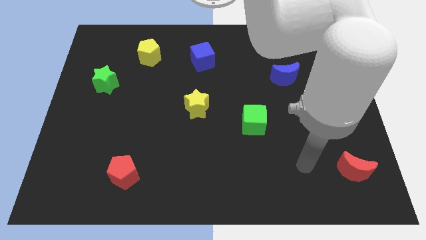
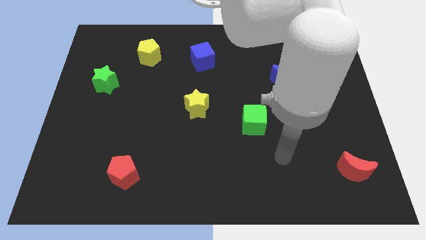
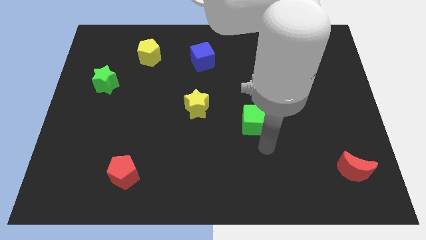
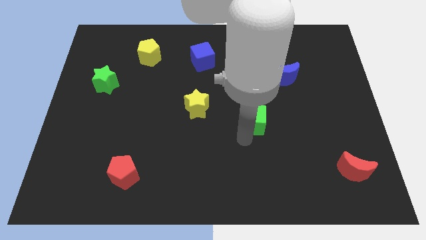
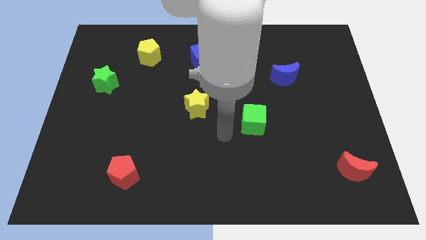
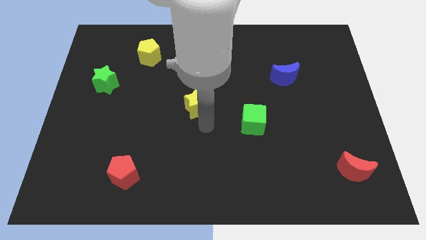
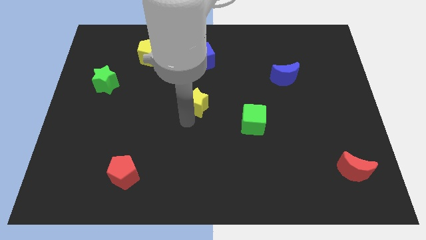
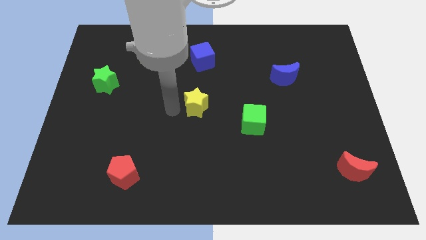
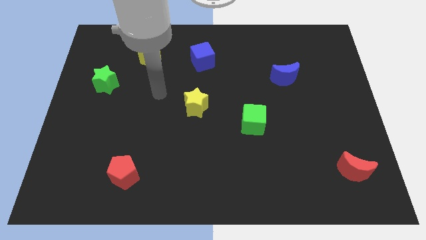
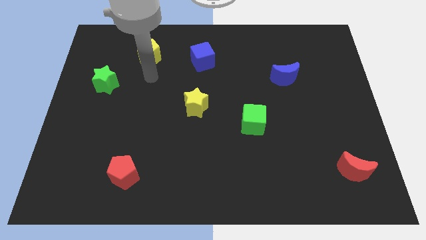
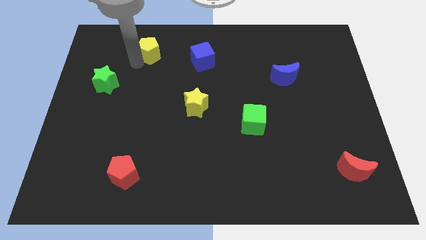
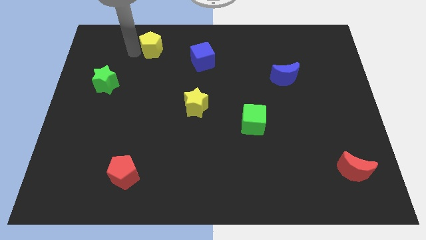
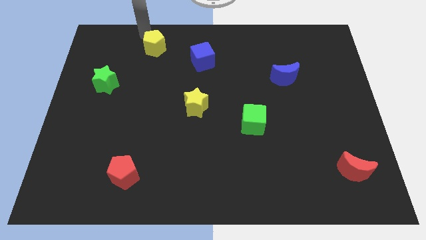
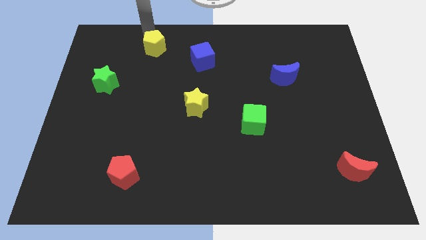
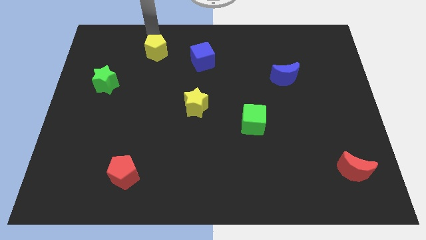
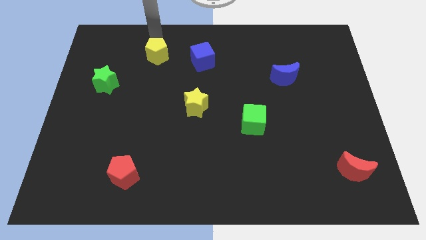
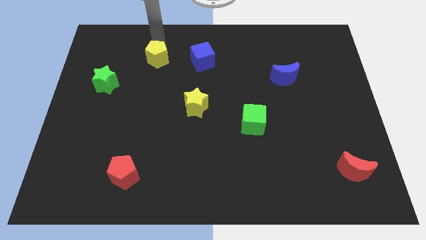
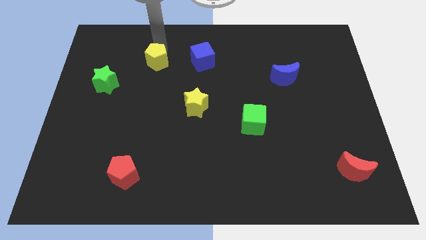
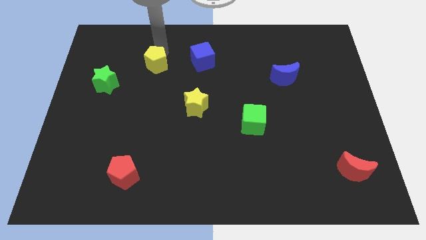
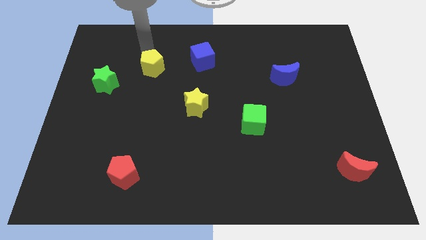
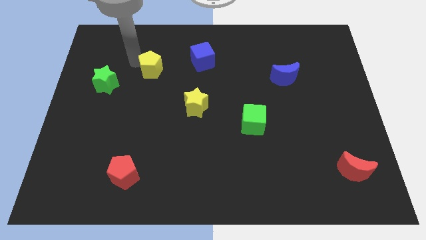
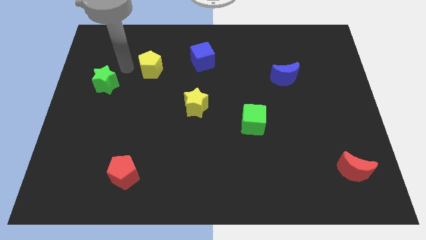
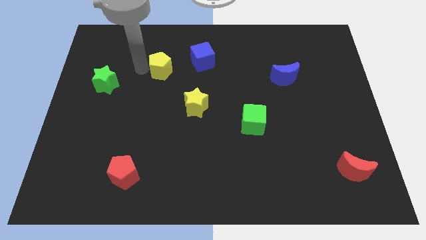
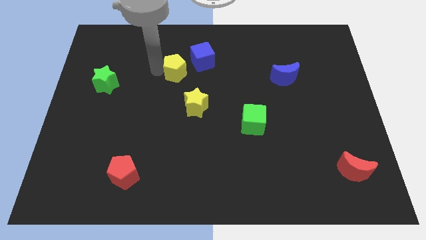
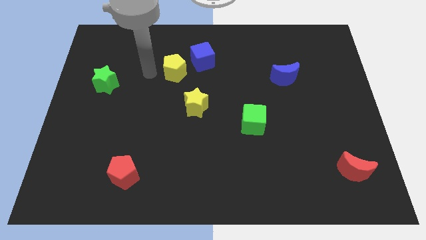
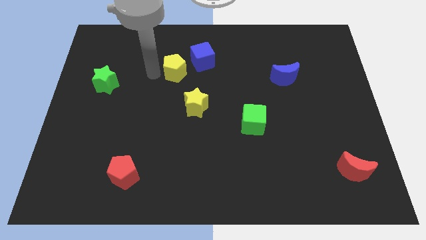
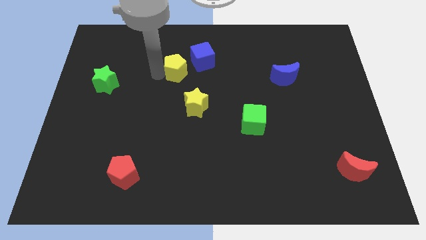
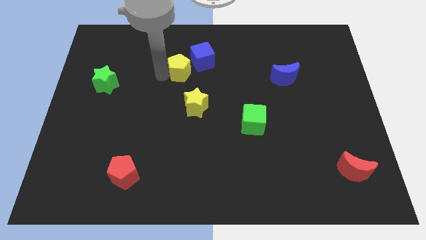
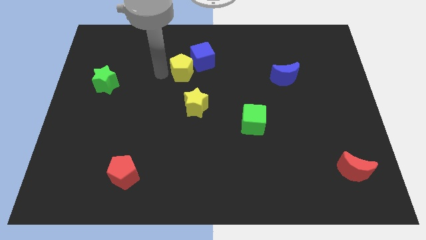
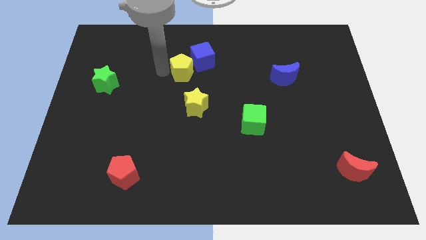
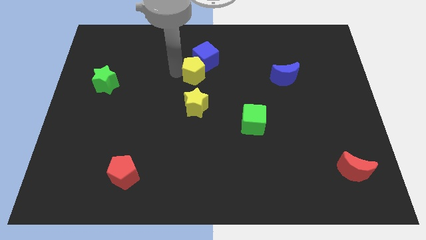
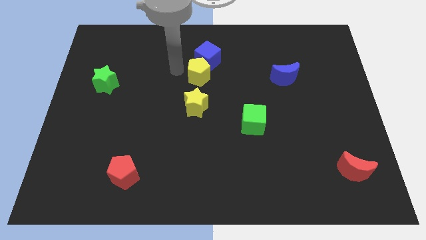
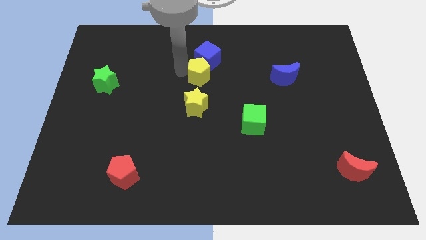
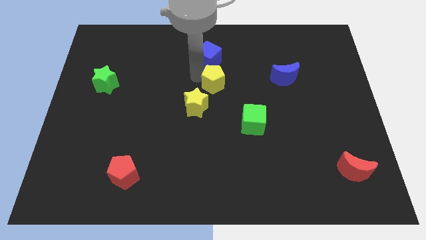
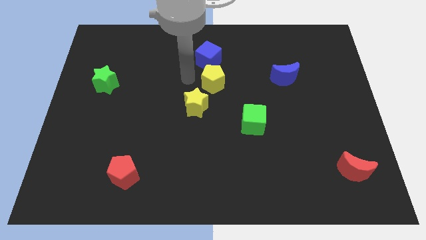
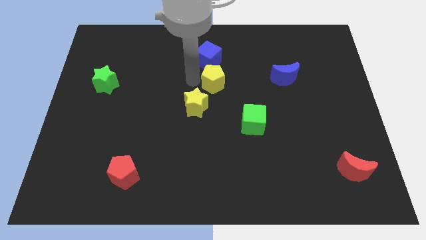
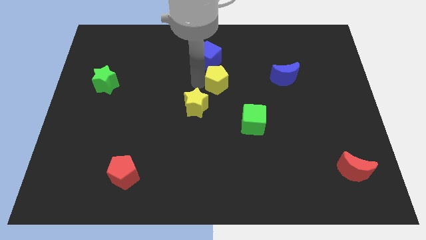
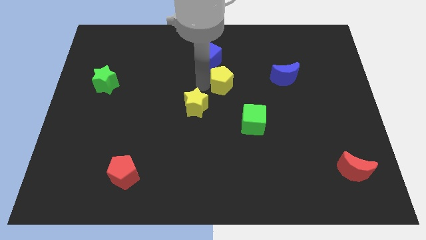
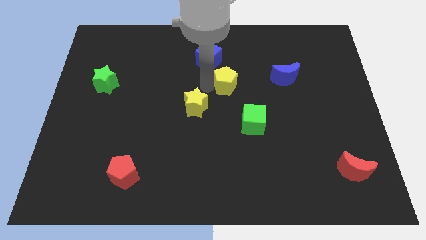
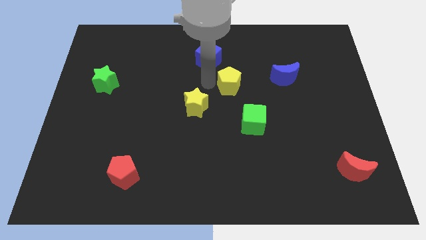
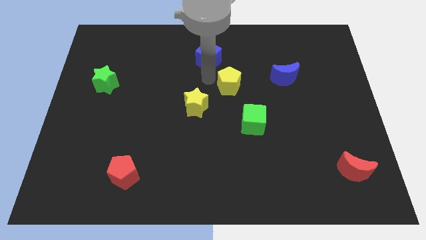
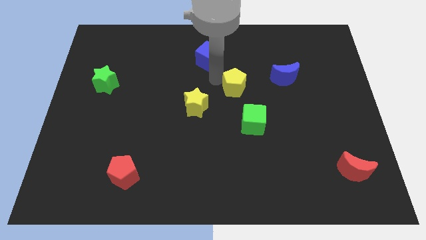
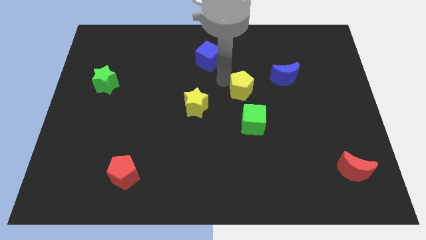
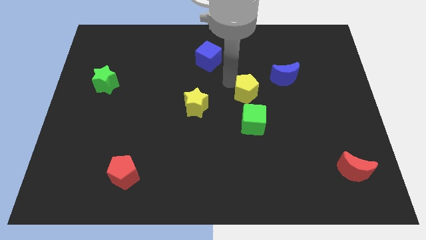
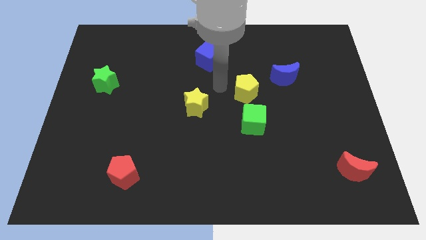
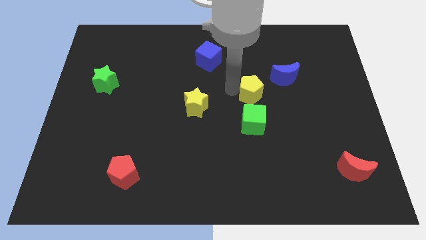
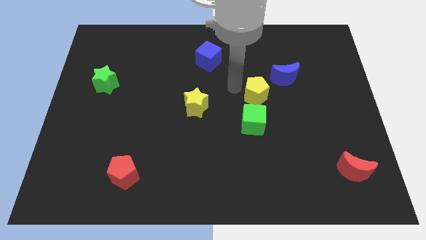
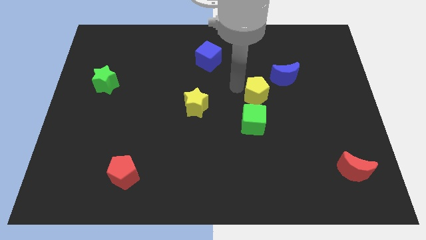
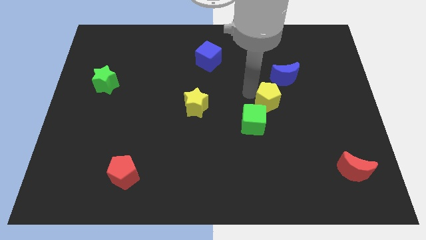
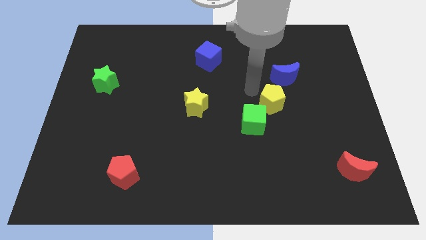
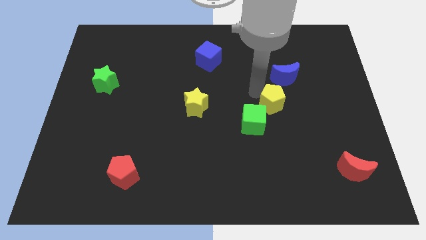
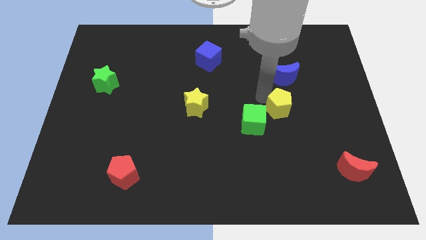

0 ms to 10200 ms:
push the yellow pentagon just right of the green cube
